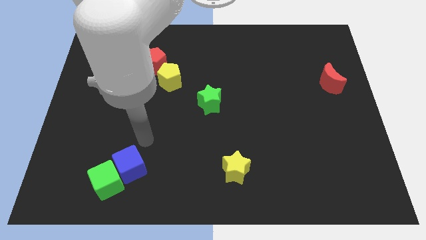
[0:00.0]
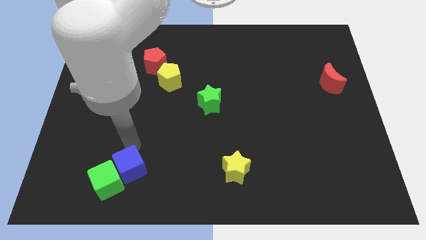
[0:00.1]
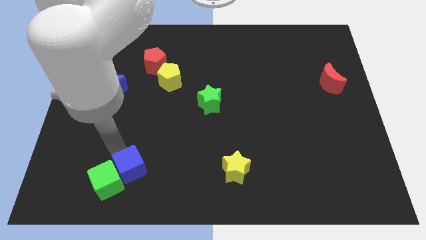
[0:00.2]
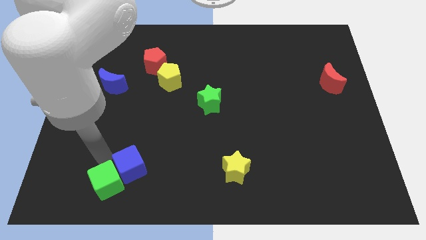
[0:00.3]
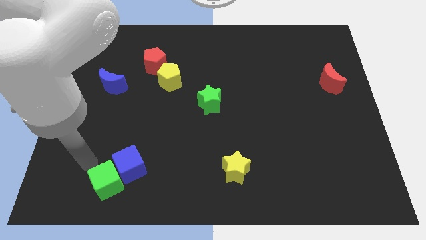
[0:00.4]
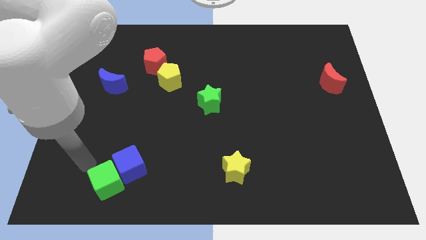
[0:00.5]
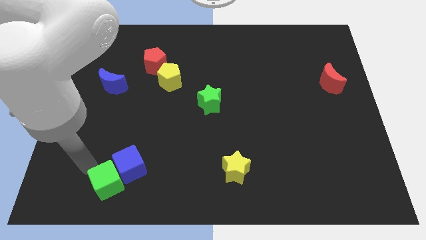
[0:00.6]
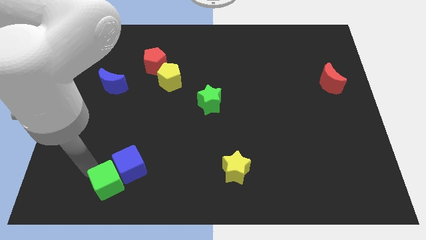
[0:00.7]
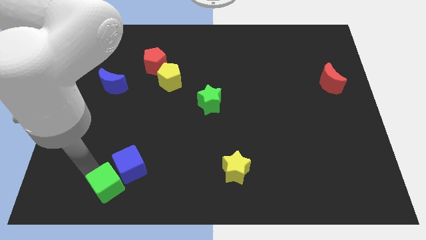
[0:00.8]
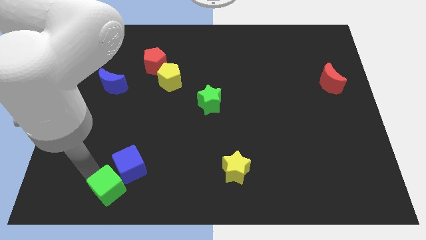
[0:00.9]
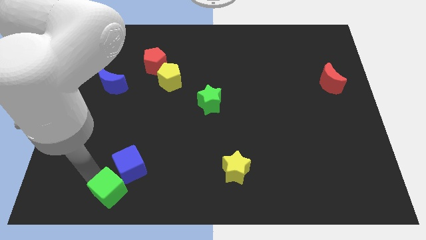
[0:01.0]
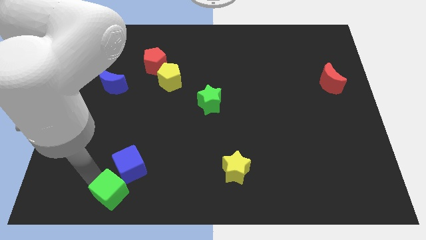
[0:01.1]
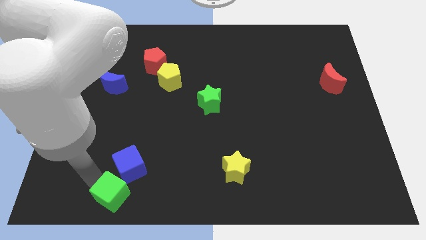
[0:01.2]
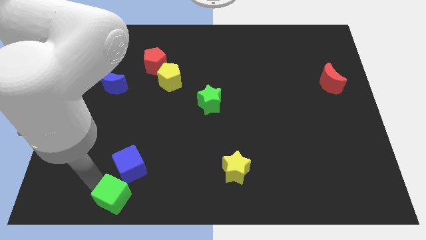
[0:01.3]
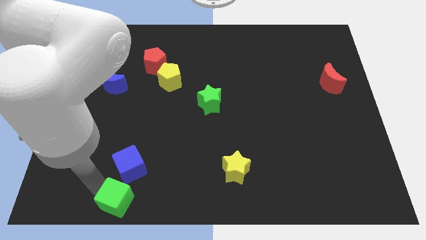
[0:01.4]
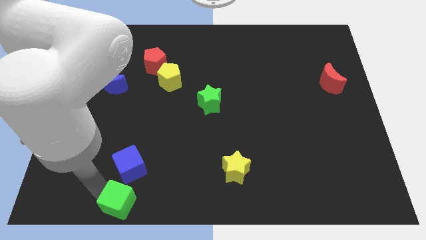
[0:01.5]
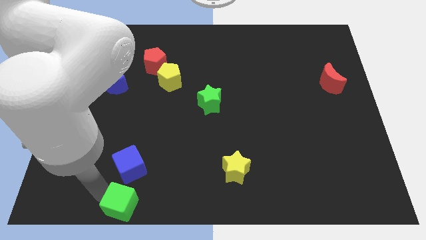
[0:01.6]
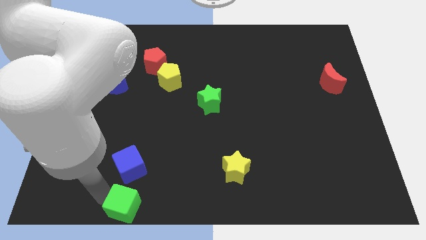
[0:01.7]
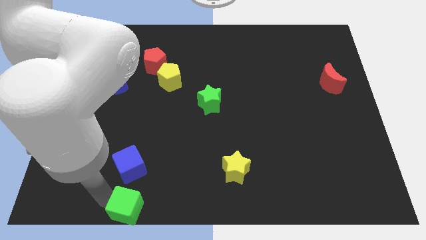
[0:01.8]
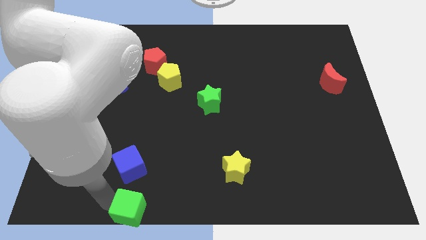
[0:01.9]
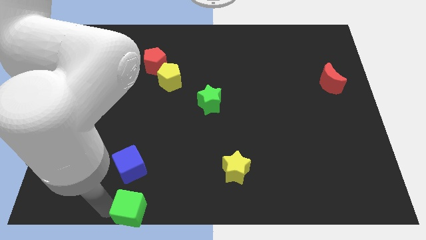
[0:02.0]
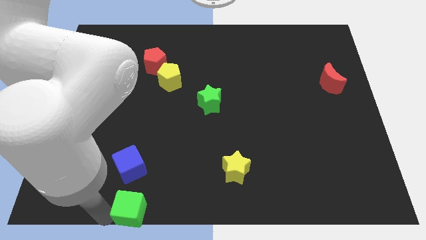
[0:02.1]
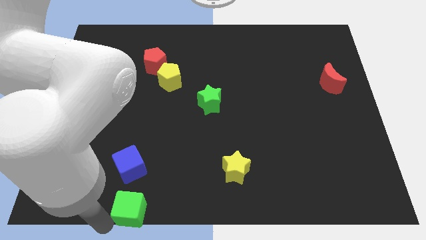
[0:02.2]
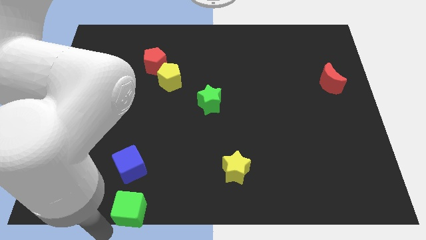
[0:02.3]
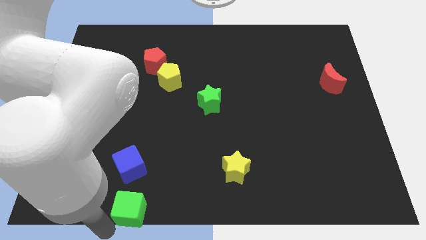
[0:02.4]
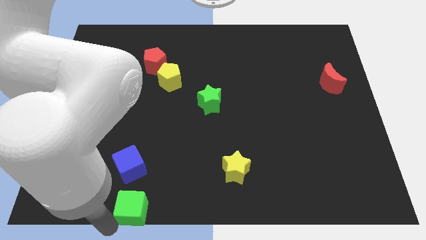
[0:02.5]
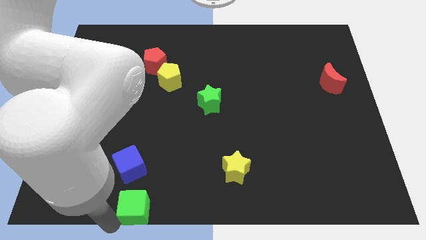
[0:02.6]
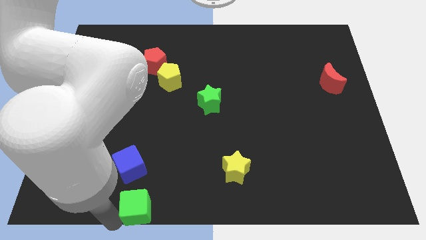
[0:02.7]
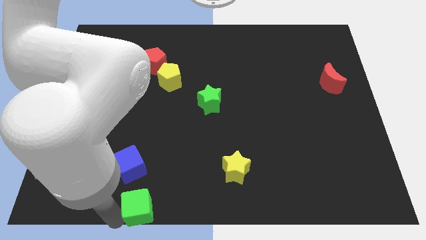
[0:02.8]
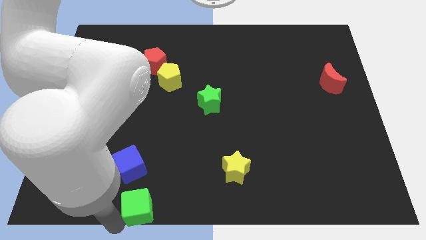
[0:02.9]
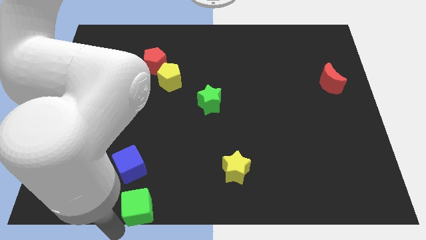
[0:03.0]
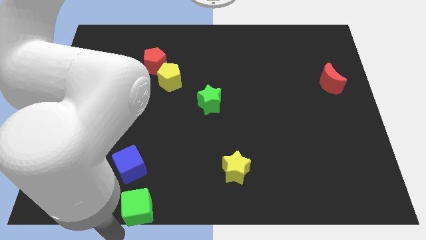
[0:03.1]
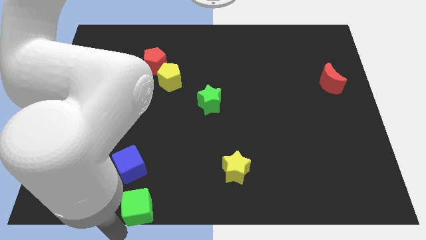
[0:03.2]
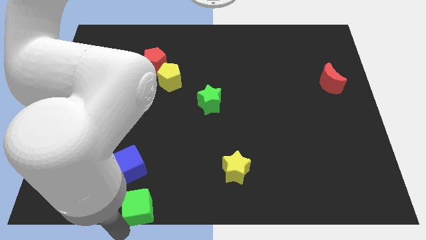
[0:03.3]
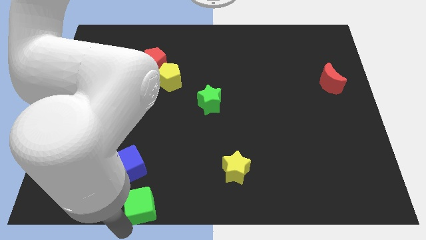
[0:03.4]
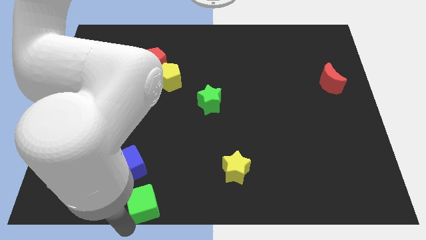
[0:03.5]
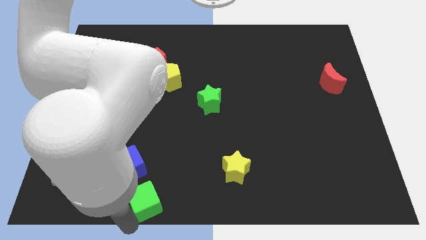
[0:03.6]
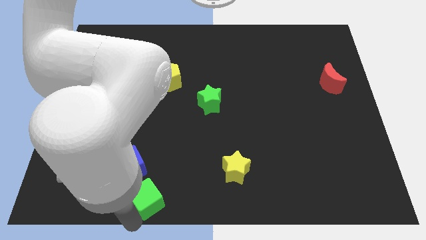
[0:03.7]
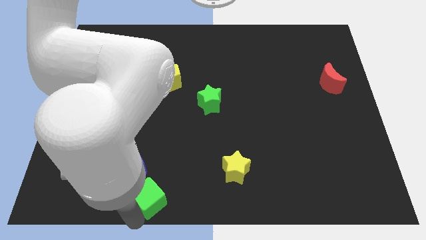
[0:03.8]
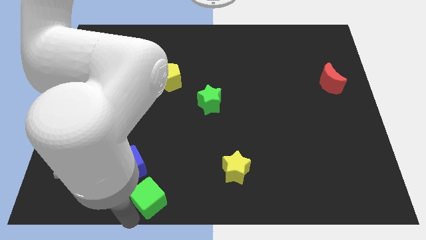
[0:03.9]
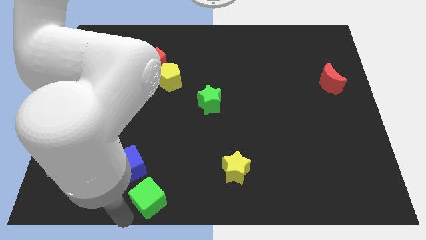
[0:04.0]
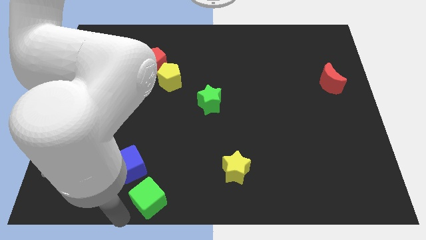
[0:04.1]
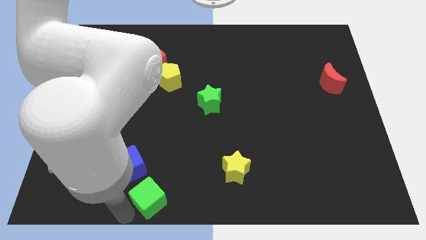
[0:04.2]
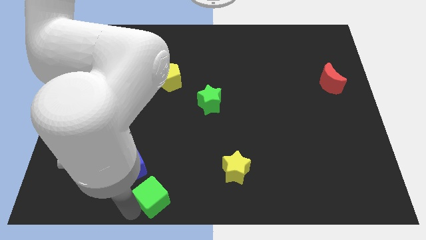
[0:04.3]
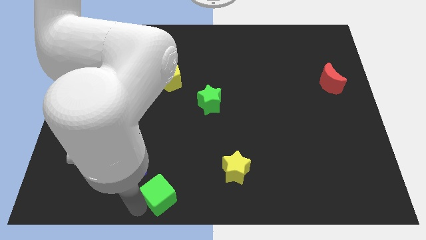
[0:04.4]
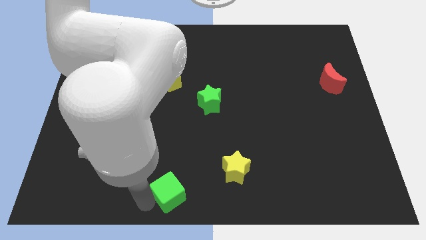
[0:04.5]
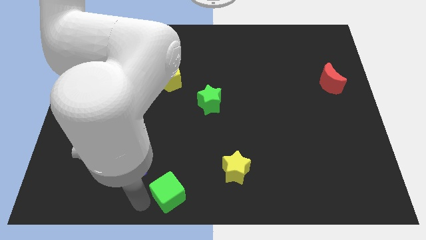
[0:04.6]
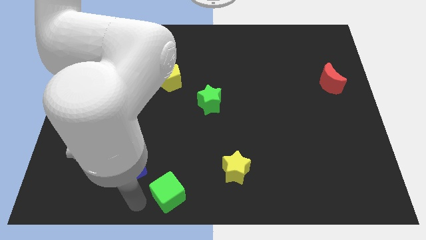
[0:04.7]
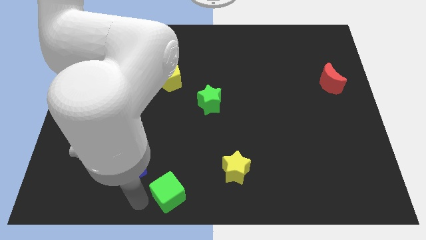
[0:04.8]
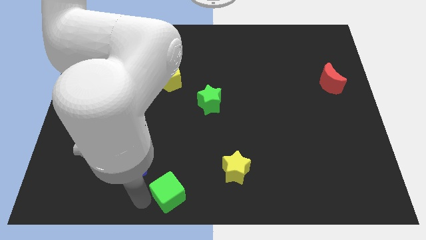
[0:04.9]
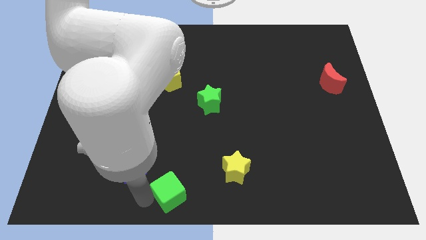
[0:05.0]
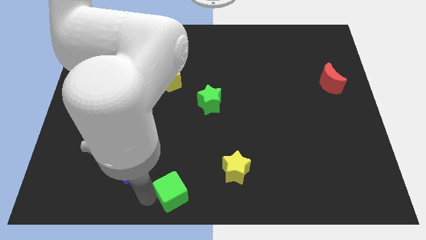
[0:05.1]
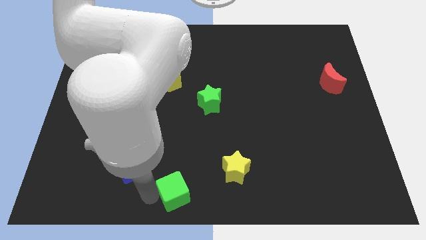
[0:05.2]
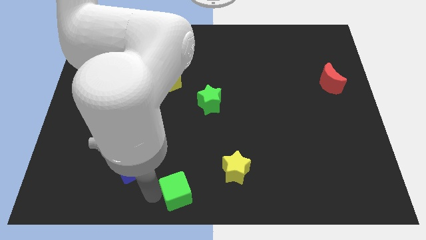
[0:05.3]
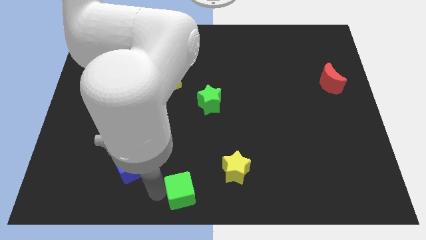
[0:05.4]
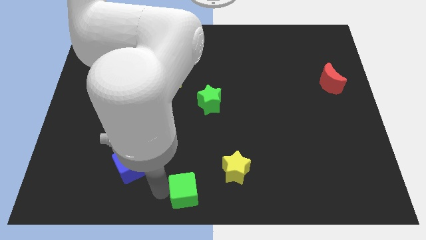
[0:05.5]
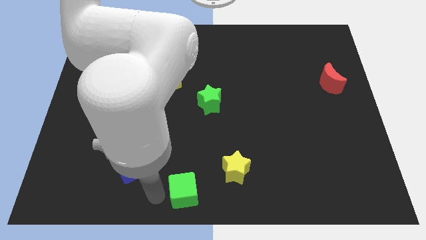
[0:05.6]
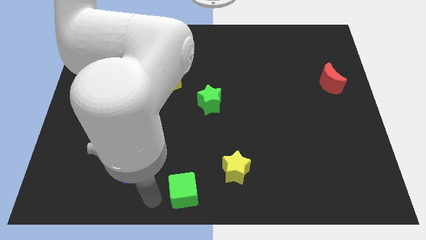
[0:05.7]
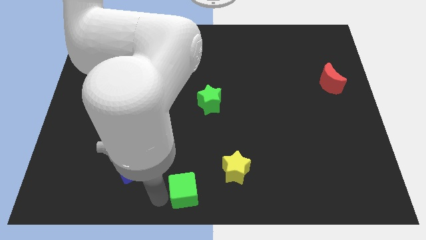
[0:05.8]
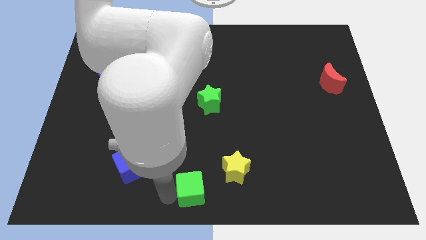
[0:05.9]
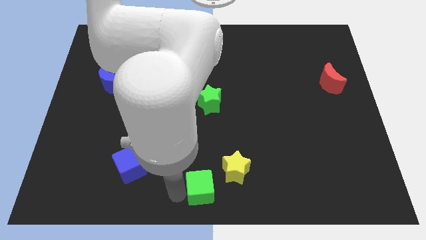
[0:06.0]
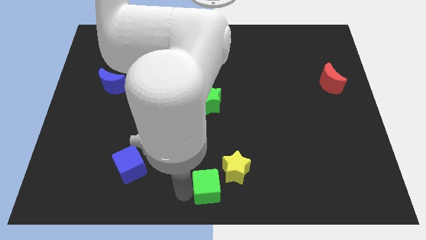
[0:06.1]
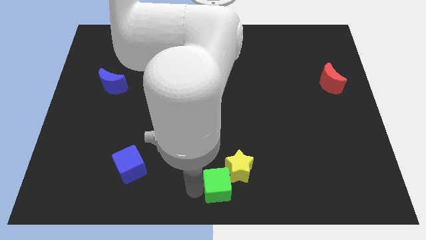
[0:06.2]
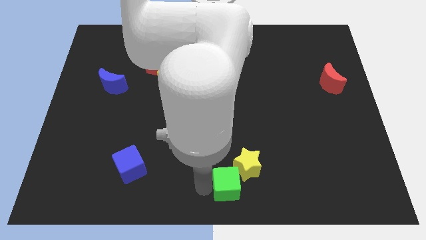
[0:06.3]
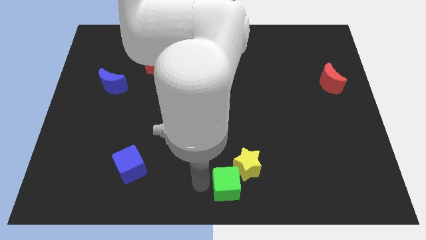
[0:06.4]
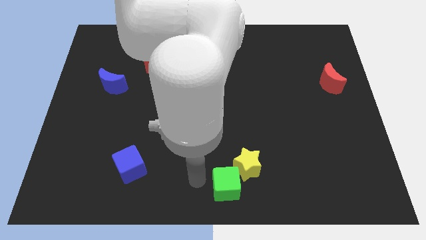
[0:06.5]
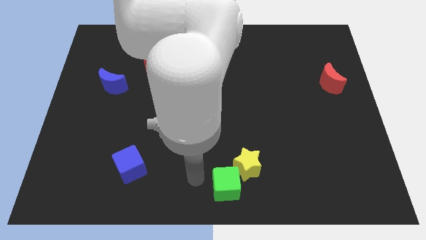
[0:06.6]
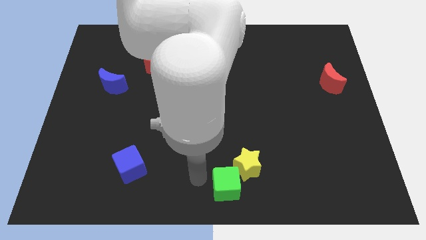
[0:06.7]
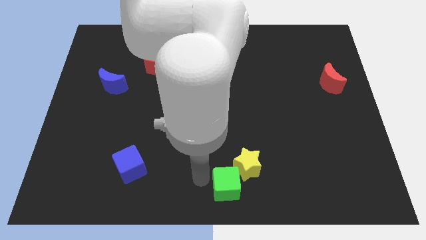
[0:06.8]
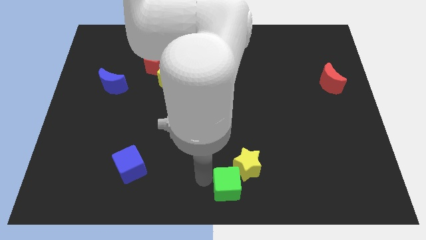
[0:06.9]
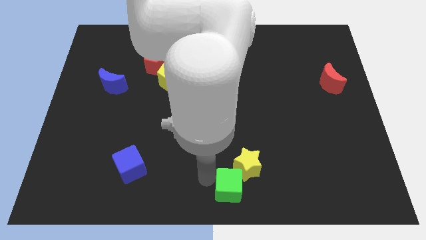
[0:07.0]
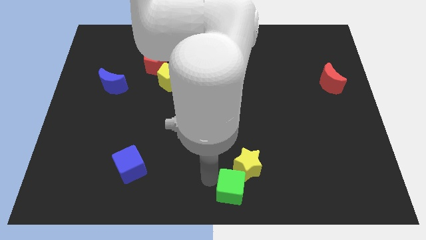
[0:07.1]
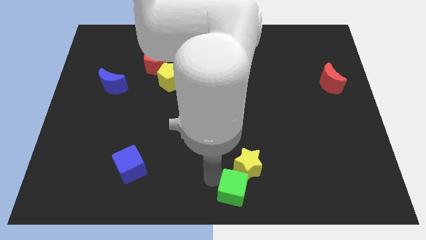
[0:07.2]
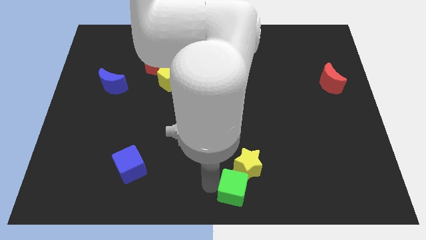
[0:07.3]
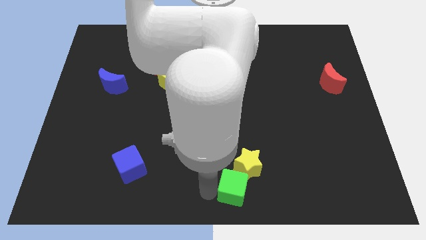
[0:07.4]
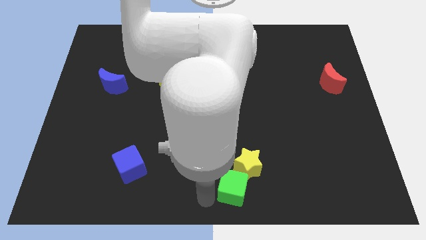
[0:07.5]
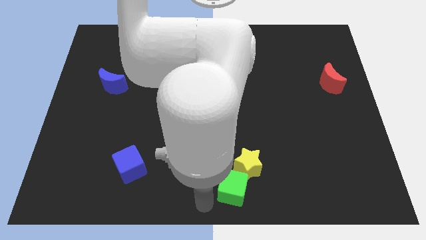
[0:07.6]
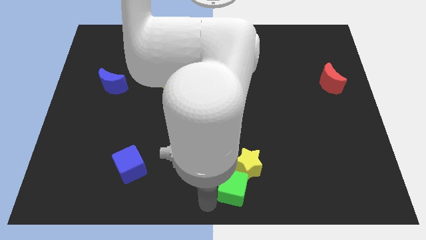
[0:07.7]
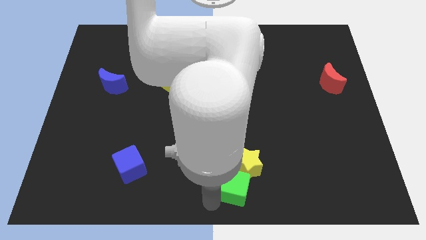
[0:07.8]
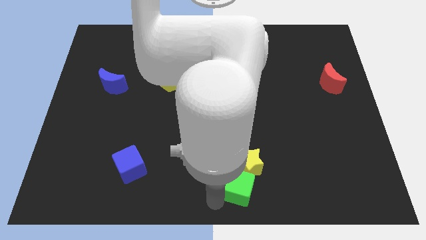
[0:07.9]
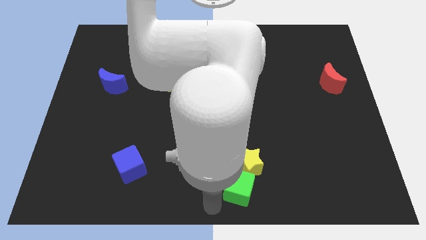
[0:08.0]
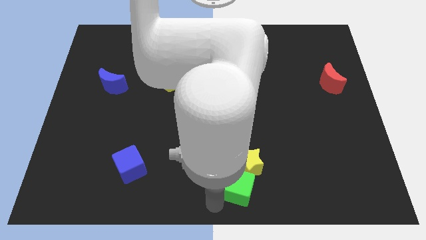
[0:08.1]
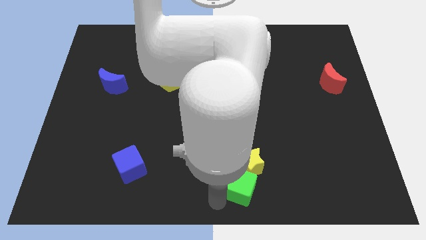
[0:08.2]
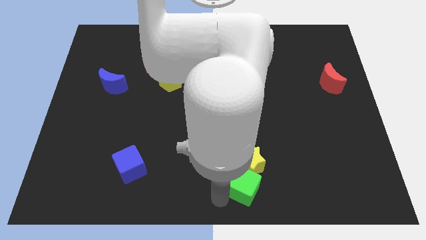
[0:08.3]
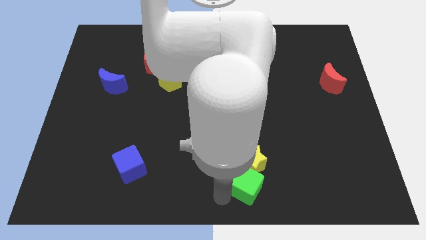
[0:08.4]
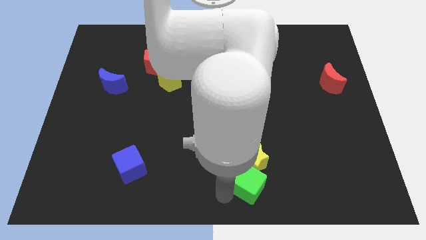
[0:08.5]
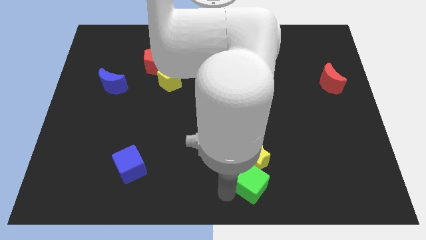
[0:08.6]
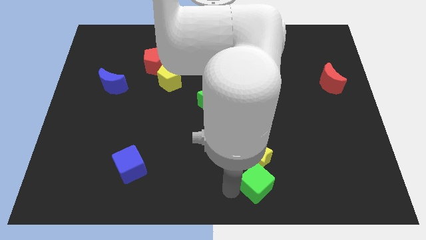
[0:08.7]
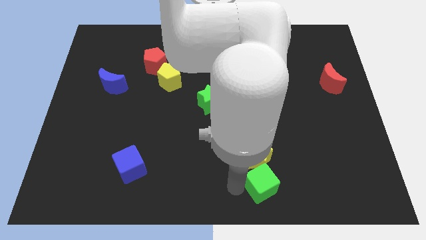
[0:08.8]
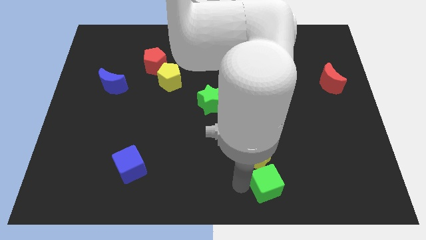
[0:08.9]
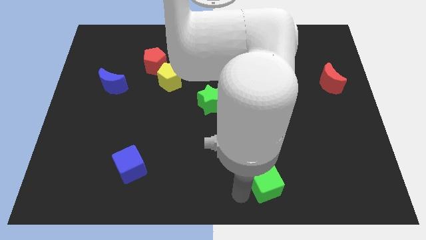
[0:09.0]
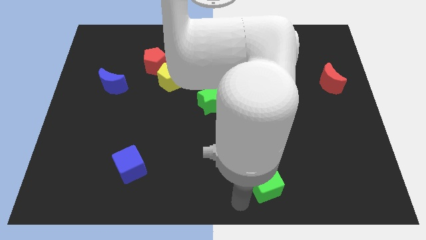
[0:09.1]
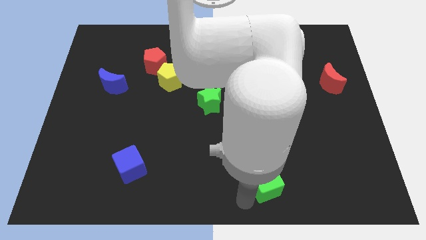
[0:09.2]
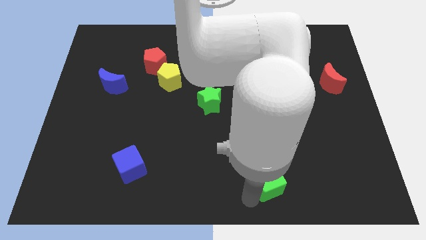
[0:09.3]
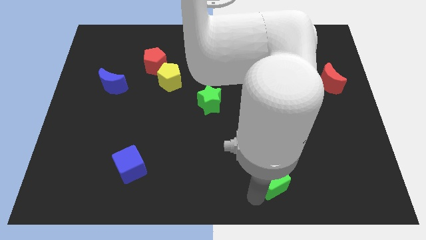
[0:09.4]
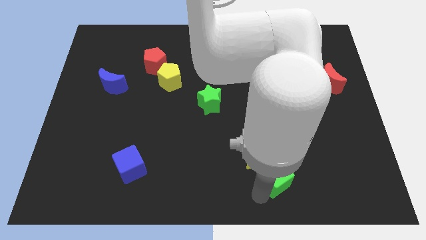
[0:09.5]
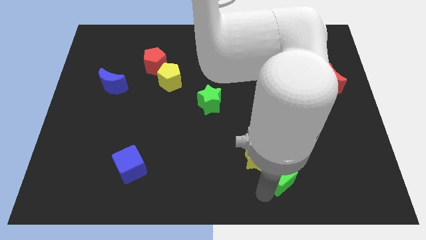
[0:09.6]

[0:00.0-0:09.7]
put the green cube right of the yellow star
